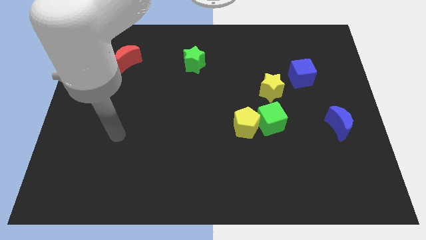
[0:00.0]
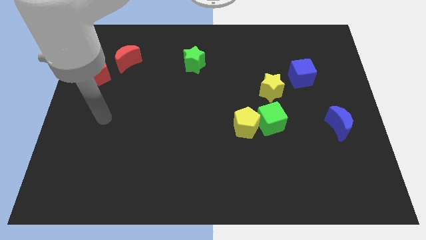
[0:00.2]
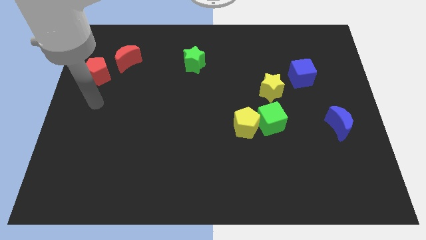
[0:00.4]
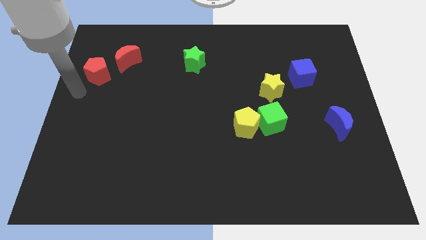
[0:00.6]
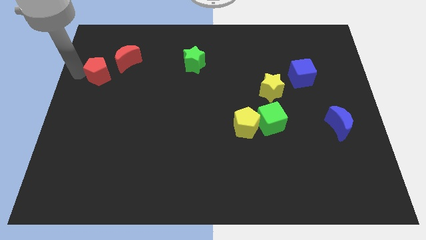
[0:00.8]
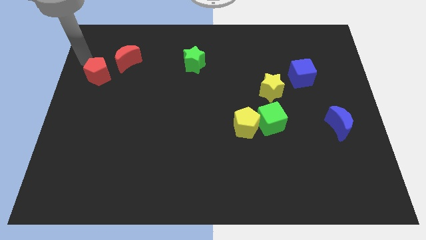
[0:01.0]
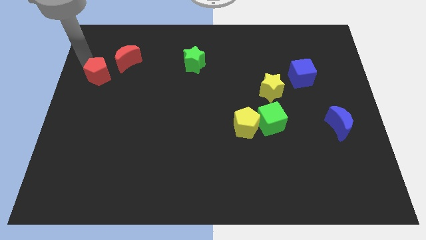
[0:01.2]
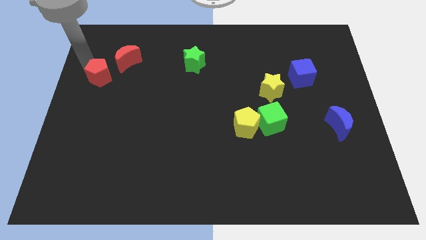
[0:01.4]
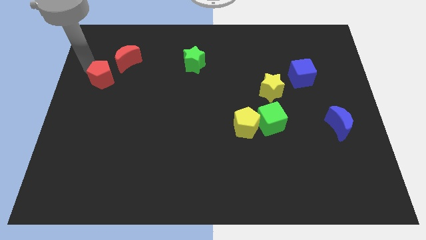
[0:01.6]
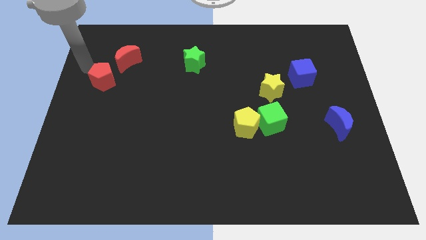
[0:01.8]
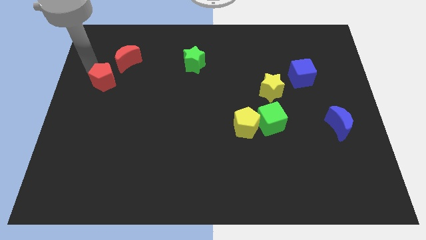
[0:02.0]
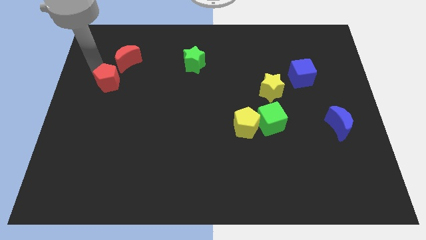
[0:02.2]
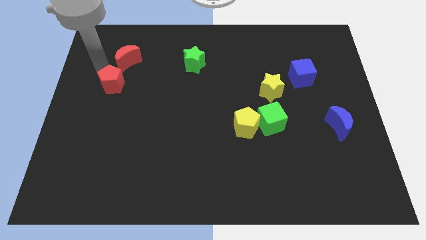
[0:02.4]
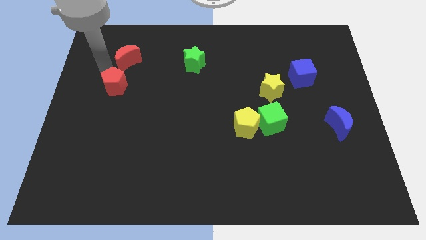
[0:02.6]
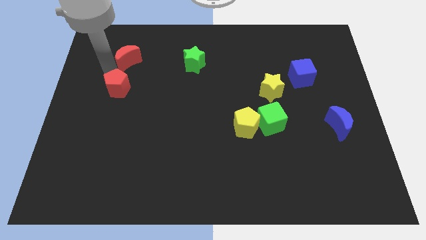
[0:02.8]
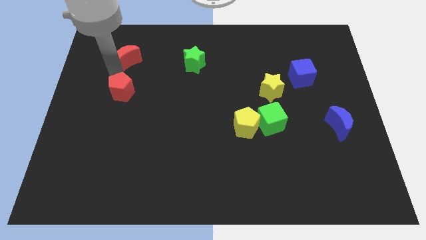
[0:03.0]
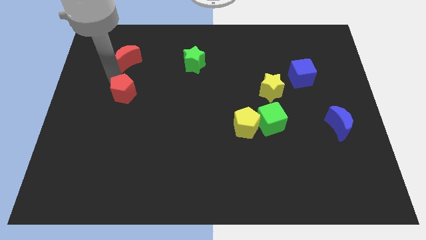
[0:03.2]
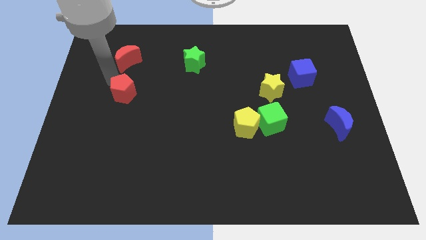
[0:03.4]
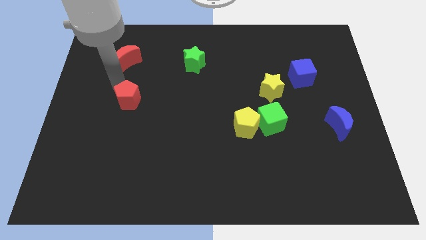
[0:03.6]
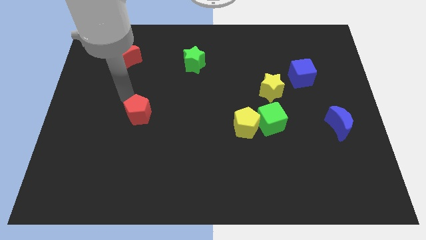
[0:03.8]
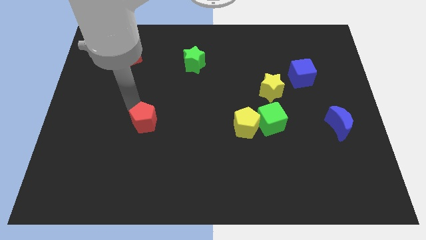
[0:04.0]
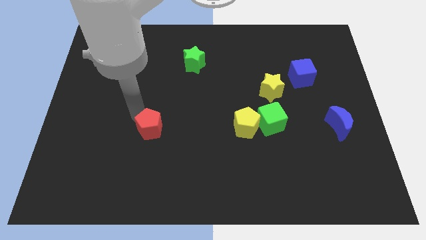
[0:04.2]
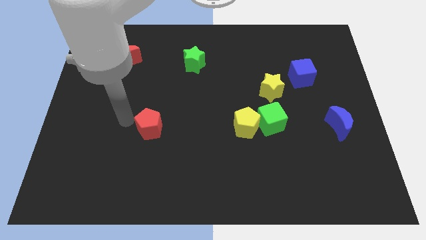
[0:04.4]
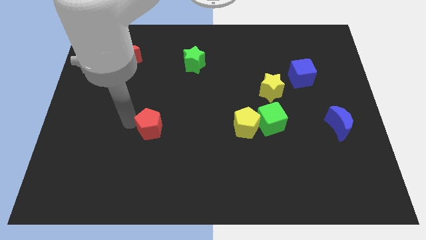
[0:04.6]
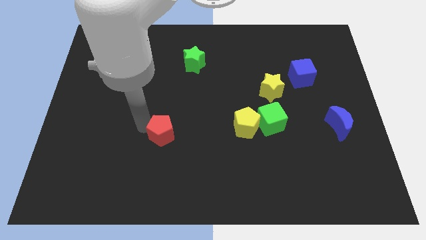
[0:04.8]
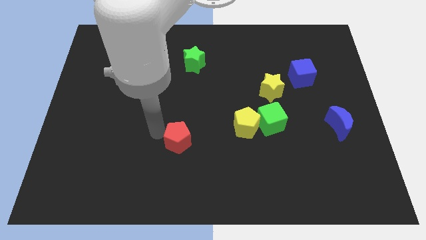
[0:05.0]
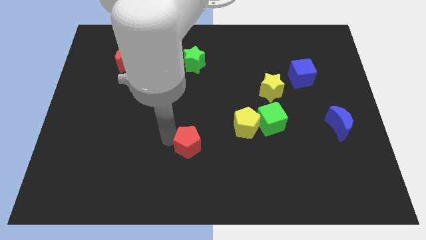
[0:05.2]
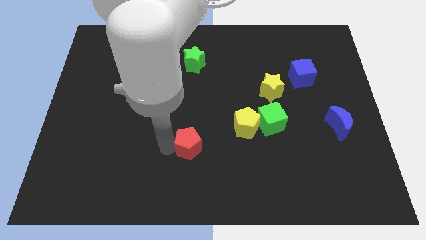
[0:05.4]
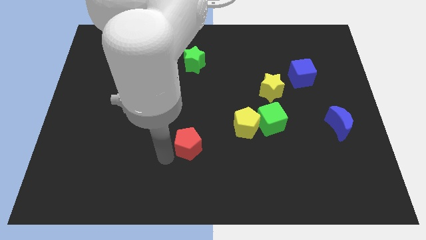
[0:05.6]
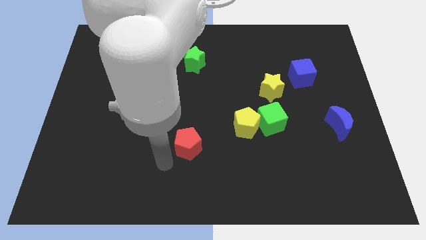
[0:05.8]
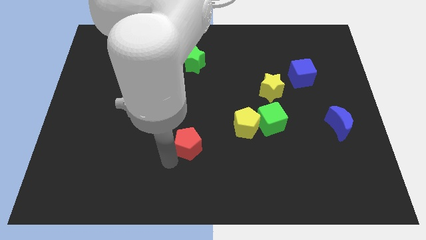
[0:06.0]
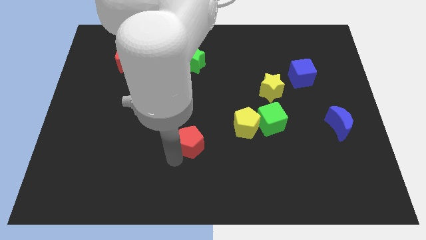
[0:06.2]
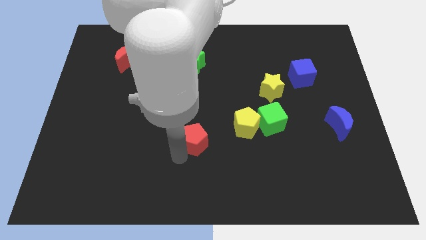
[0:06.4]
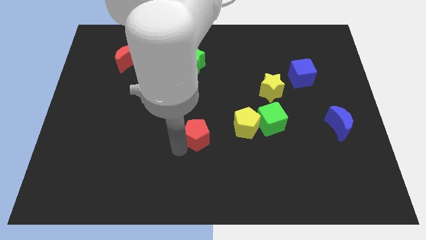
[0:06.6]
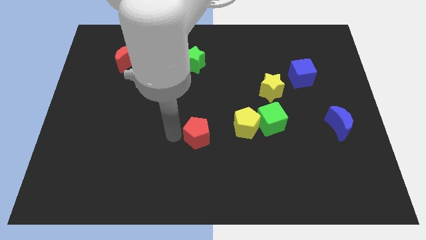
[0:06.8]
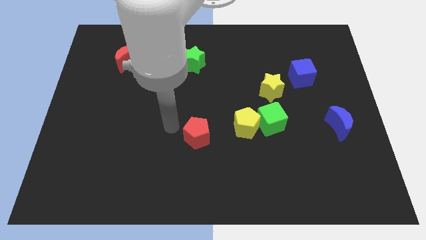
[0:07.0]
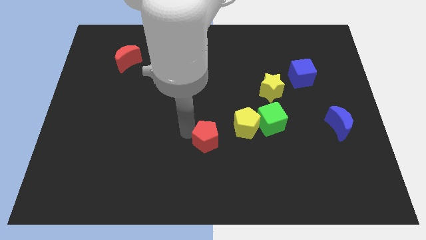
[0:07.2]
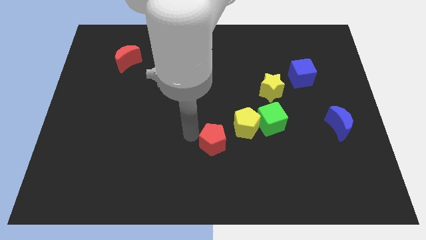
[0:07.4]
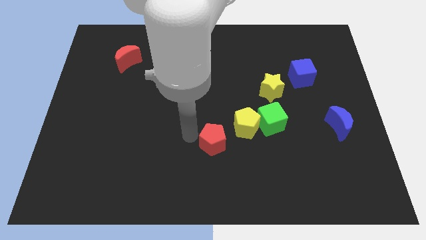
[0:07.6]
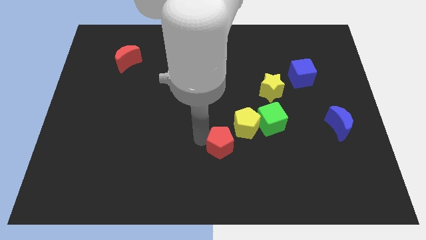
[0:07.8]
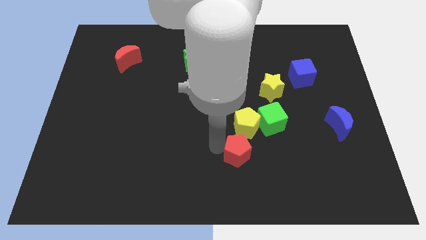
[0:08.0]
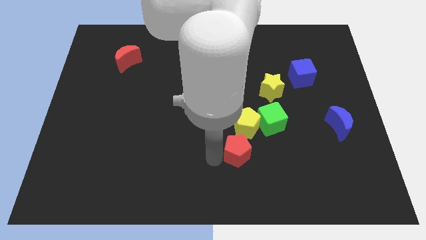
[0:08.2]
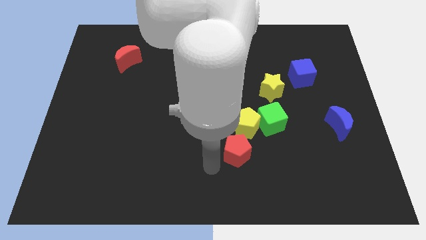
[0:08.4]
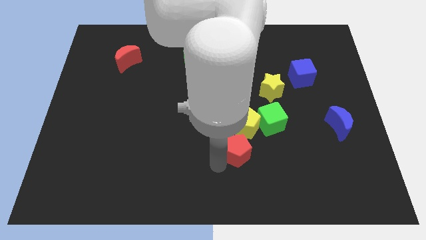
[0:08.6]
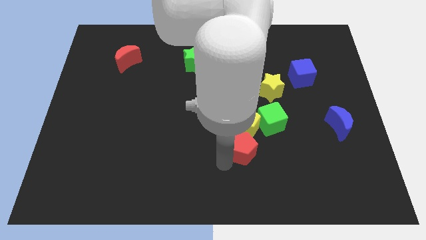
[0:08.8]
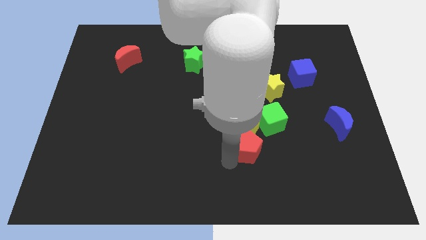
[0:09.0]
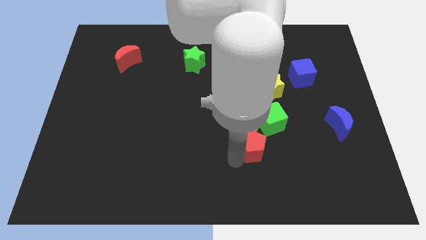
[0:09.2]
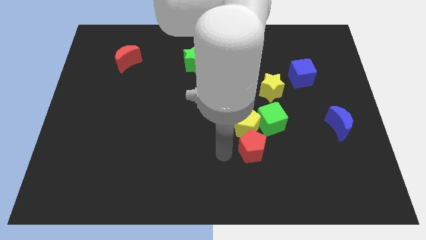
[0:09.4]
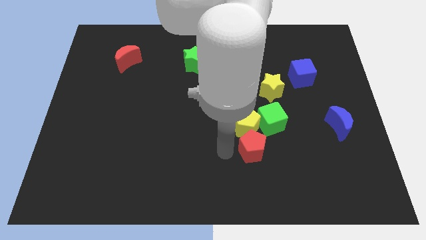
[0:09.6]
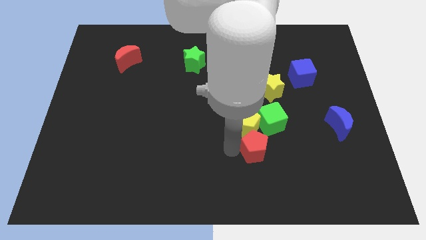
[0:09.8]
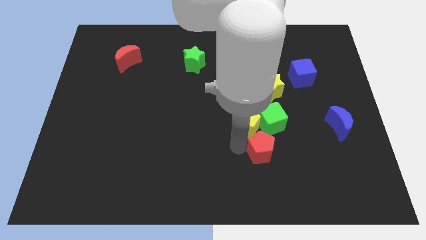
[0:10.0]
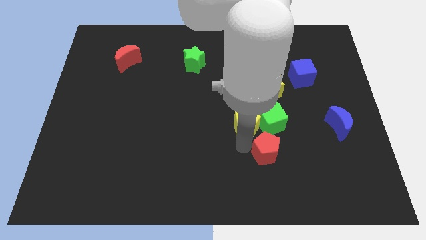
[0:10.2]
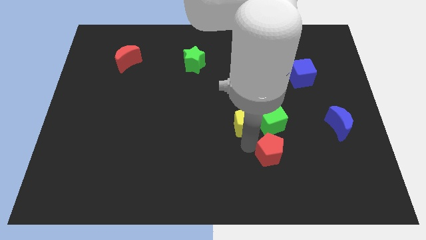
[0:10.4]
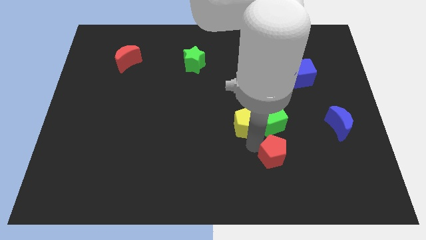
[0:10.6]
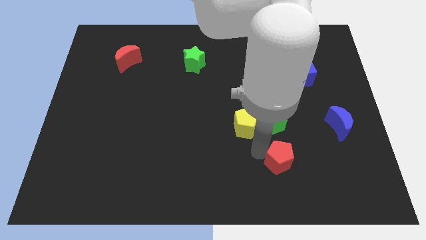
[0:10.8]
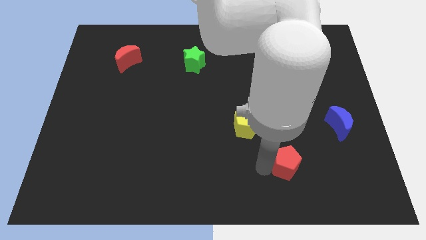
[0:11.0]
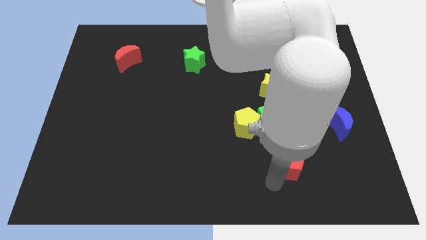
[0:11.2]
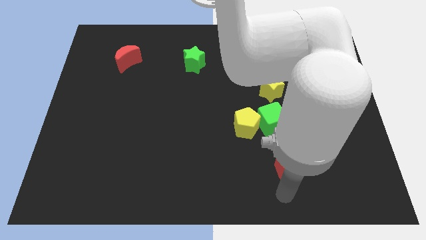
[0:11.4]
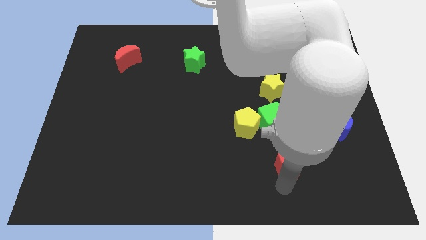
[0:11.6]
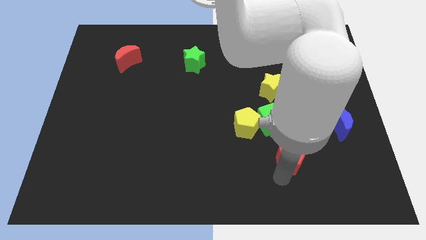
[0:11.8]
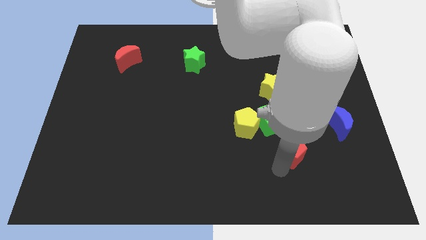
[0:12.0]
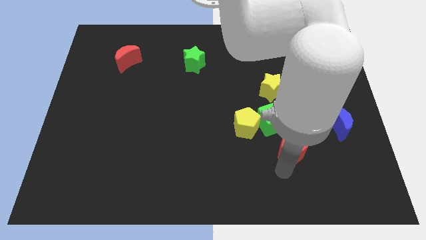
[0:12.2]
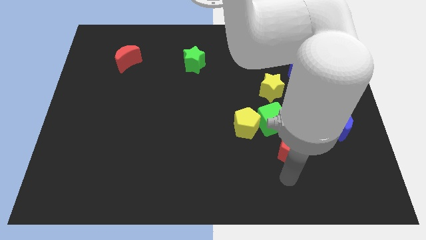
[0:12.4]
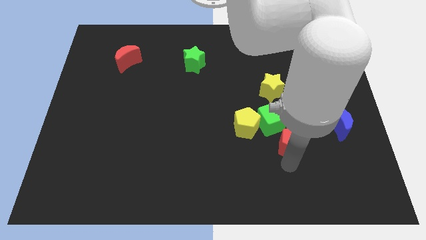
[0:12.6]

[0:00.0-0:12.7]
slide the red pentagon to the right side of the yellow pentagon
